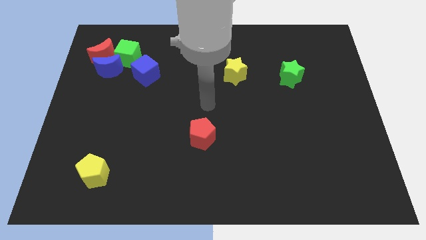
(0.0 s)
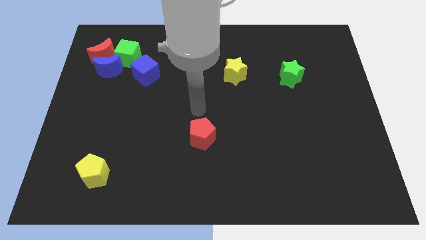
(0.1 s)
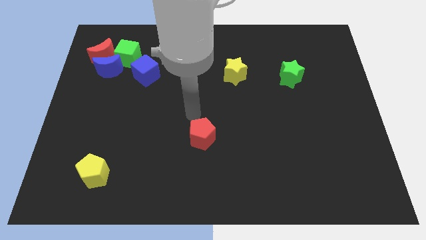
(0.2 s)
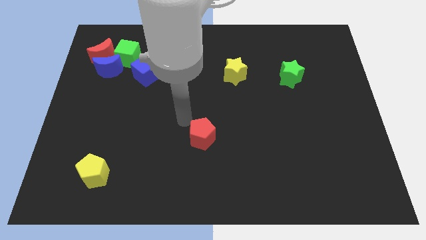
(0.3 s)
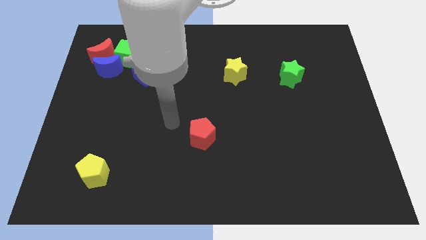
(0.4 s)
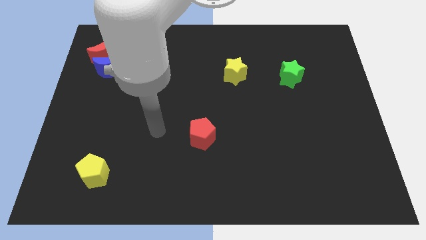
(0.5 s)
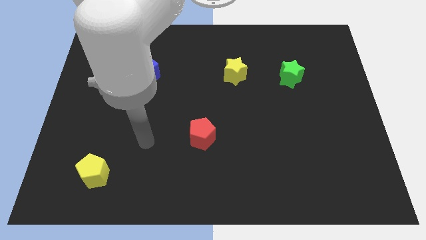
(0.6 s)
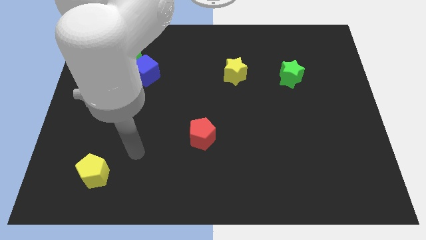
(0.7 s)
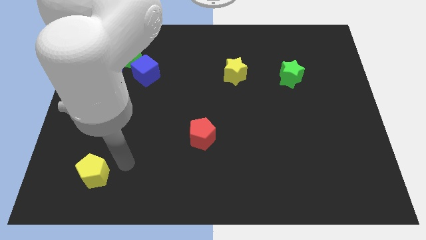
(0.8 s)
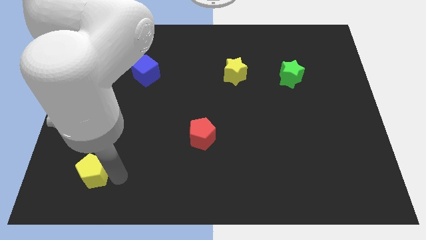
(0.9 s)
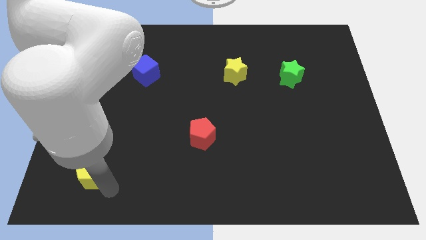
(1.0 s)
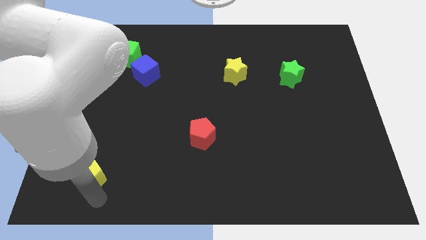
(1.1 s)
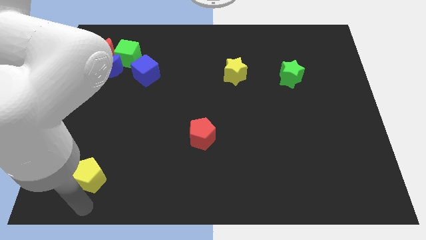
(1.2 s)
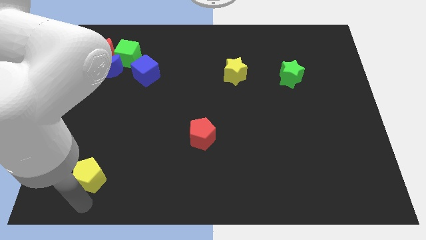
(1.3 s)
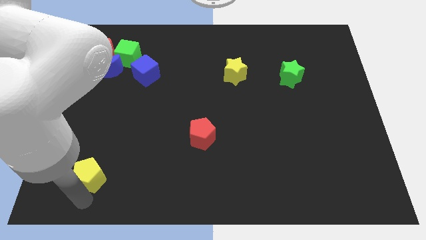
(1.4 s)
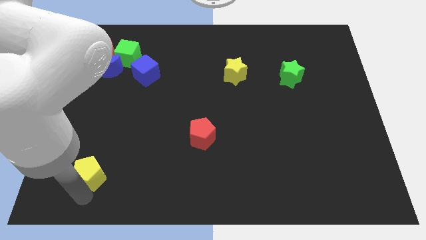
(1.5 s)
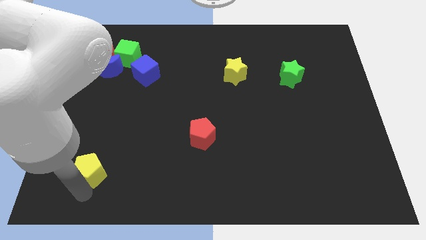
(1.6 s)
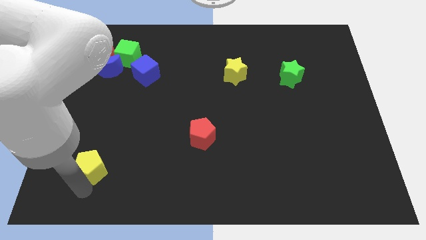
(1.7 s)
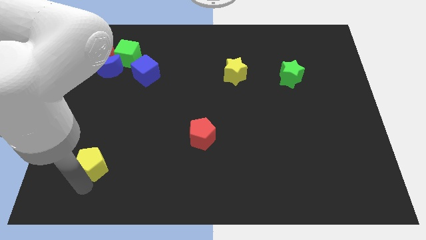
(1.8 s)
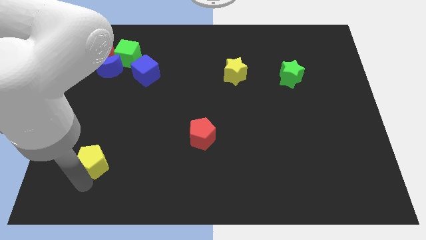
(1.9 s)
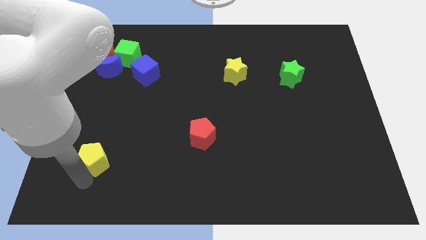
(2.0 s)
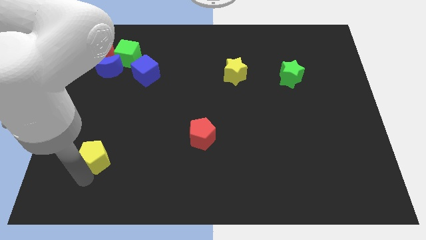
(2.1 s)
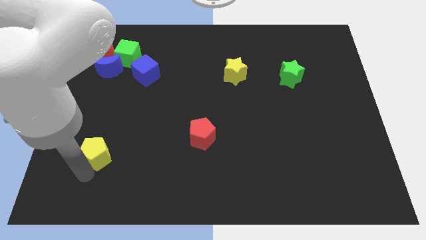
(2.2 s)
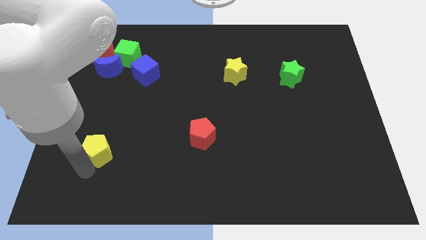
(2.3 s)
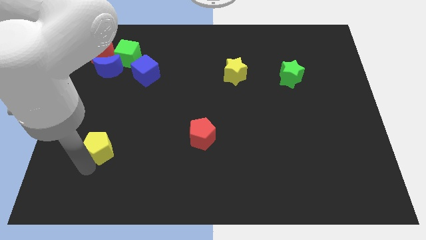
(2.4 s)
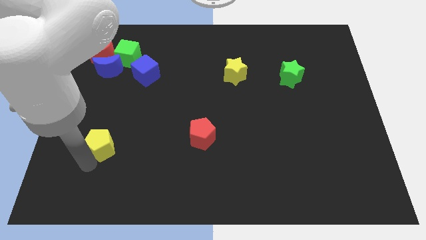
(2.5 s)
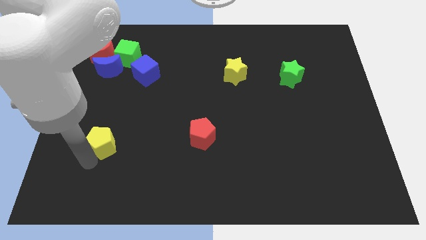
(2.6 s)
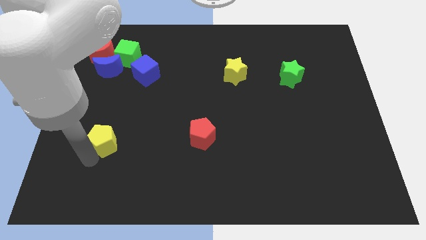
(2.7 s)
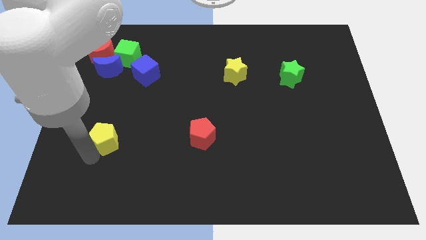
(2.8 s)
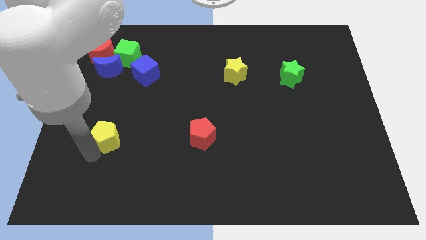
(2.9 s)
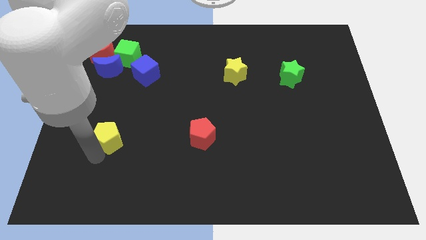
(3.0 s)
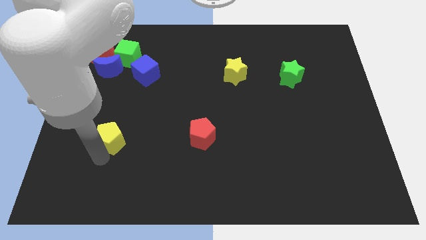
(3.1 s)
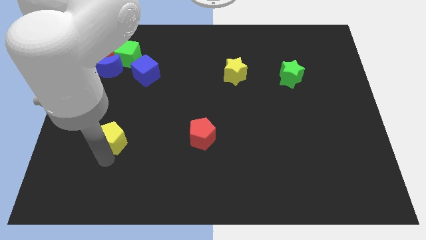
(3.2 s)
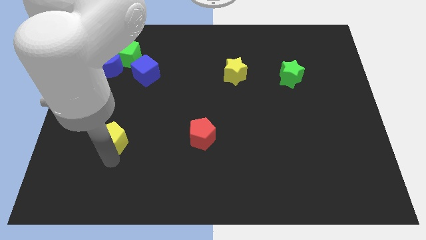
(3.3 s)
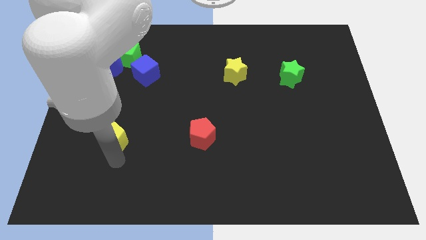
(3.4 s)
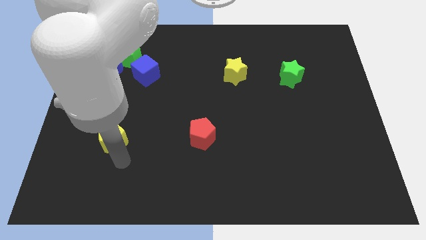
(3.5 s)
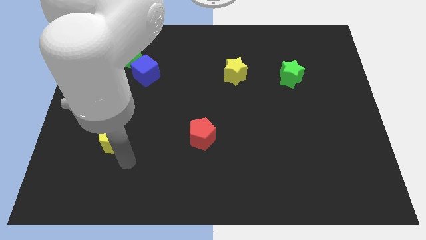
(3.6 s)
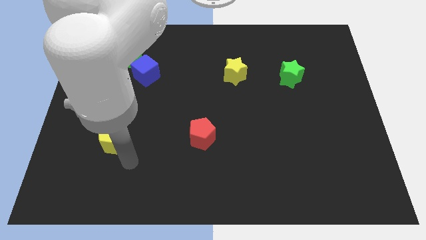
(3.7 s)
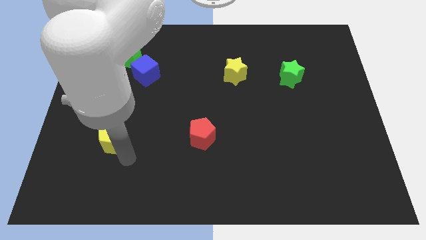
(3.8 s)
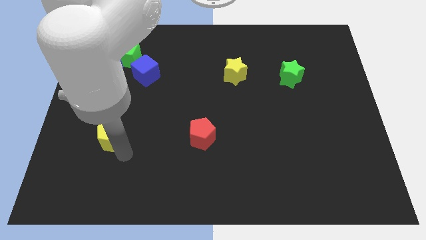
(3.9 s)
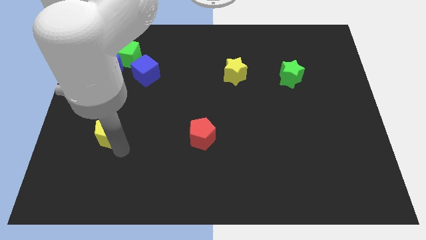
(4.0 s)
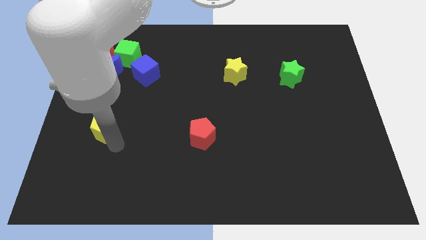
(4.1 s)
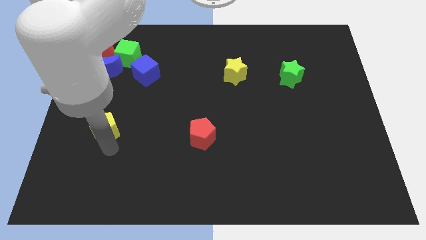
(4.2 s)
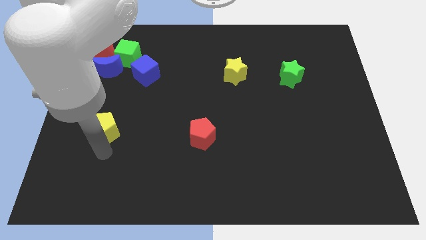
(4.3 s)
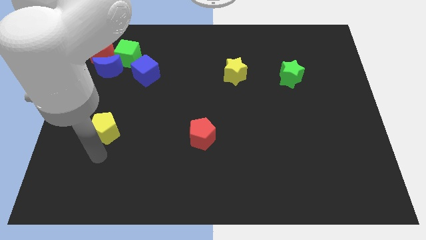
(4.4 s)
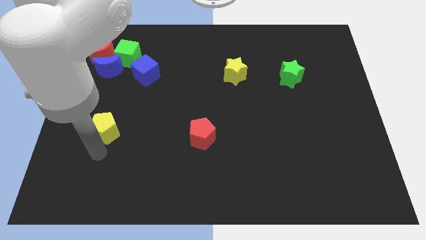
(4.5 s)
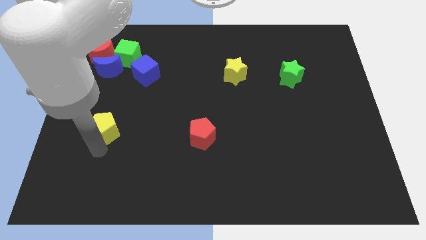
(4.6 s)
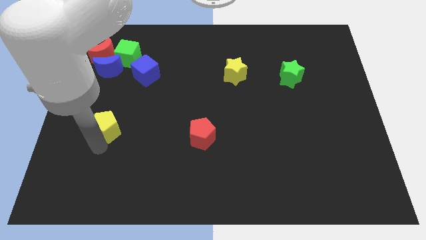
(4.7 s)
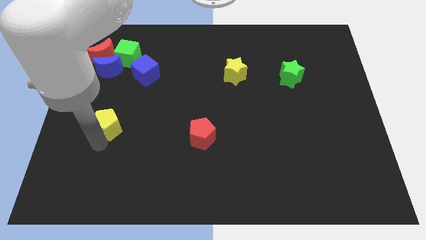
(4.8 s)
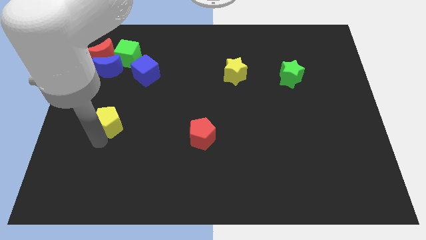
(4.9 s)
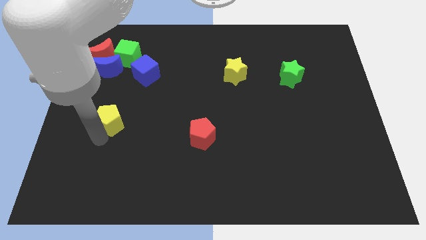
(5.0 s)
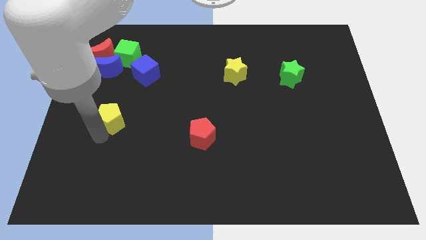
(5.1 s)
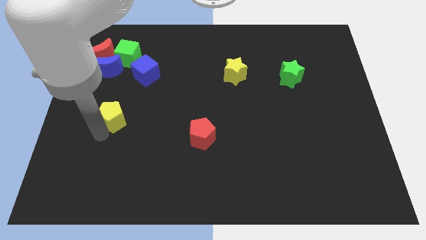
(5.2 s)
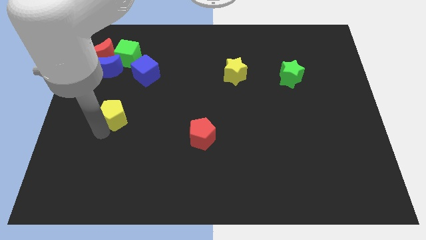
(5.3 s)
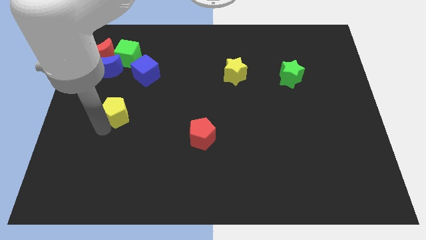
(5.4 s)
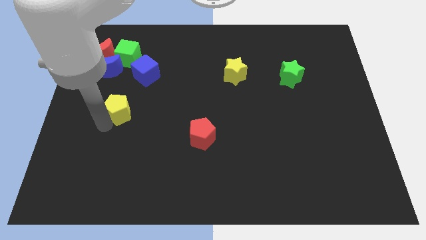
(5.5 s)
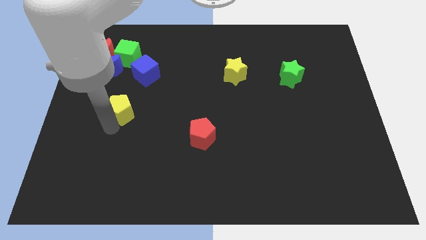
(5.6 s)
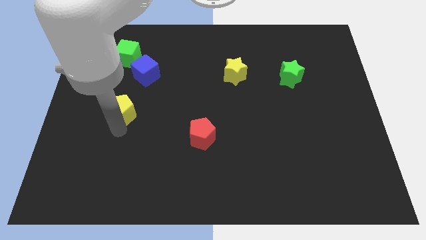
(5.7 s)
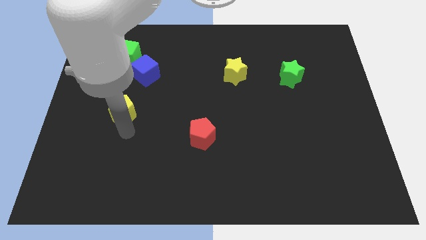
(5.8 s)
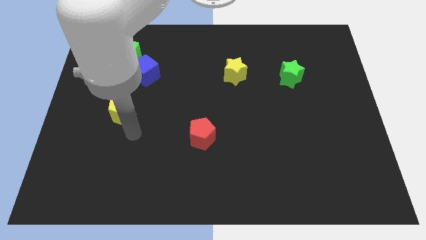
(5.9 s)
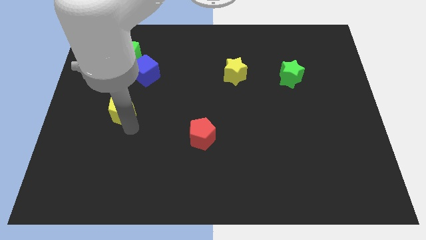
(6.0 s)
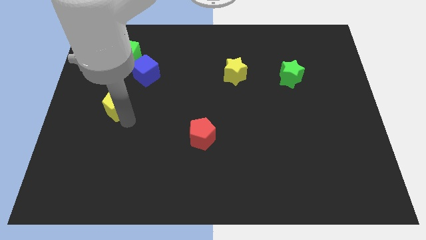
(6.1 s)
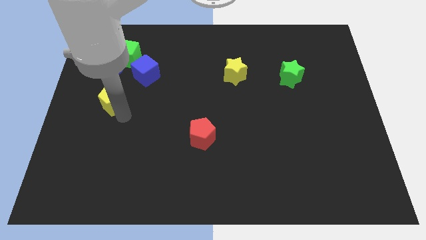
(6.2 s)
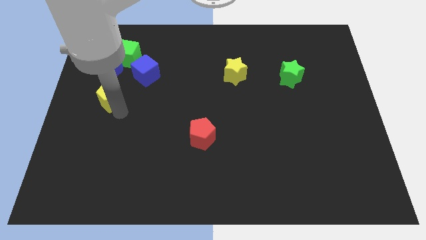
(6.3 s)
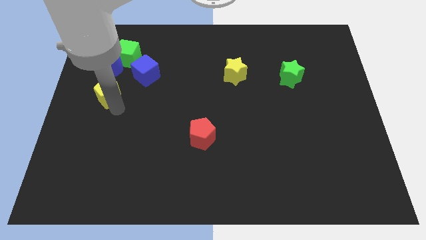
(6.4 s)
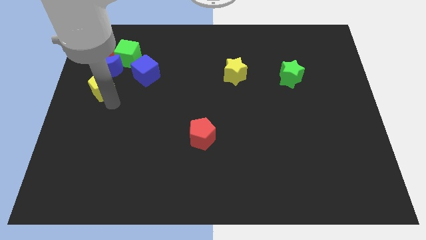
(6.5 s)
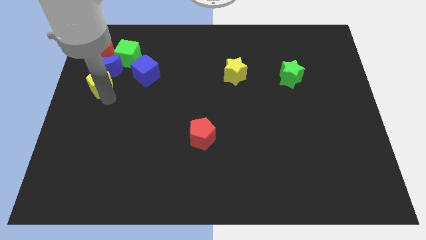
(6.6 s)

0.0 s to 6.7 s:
slide the yellow pentagon towards the blue moon
